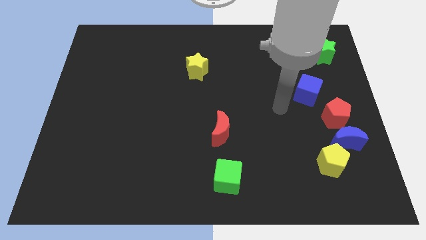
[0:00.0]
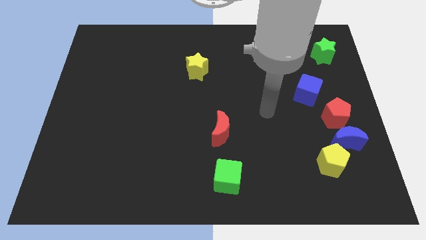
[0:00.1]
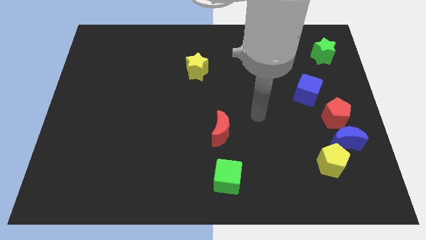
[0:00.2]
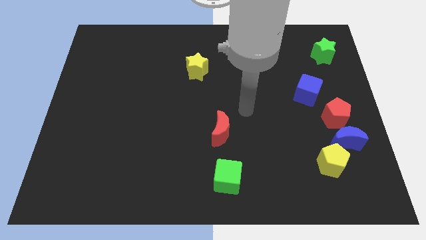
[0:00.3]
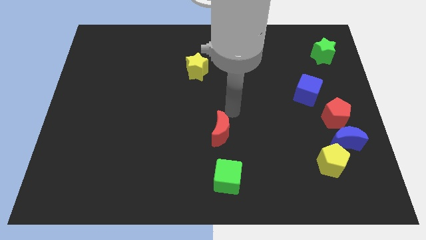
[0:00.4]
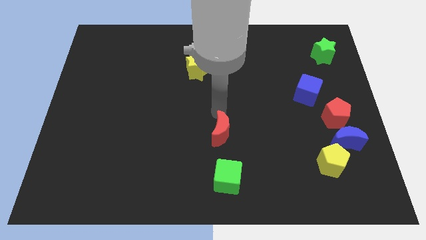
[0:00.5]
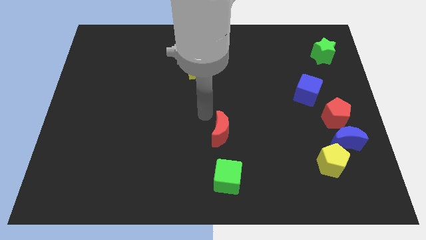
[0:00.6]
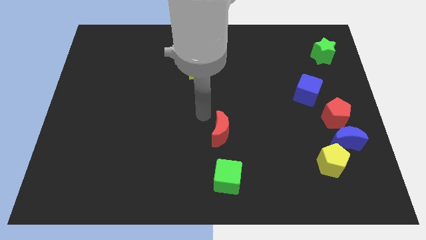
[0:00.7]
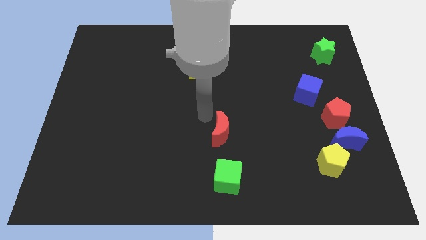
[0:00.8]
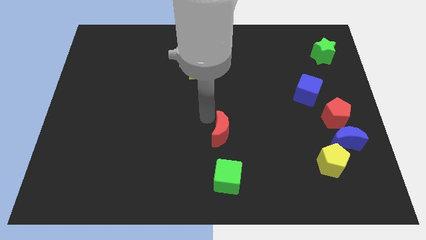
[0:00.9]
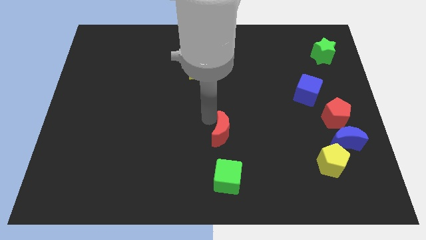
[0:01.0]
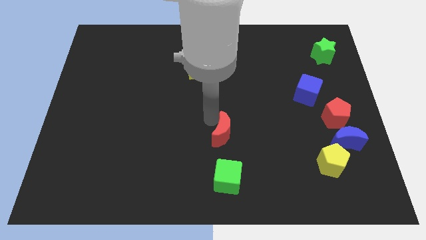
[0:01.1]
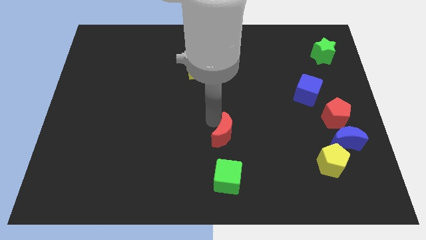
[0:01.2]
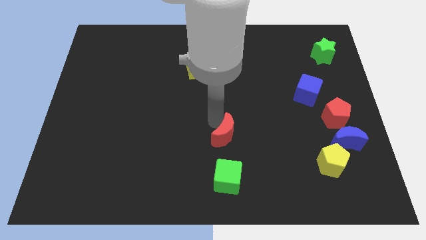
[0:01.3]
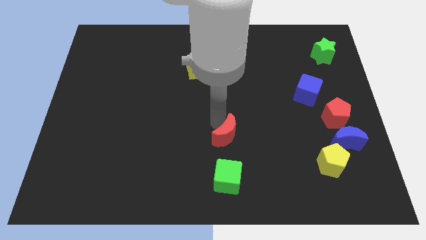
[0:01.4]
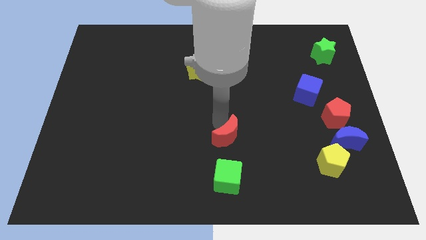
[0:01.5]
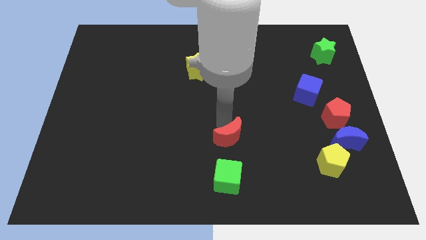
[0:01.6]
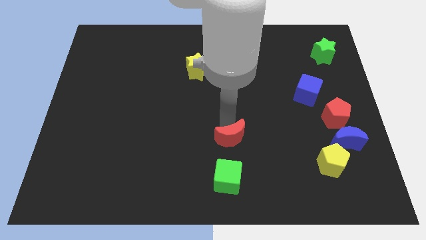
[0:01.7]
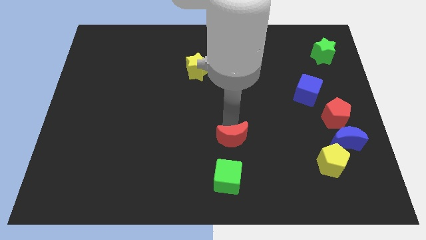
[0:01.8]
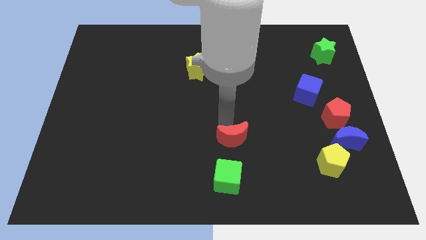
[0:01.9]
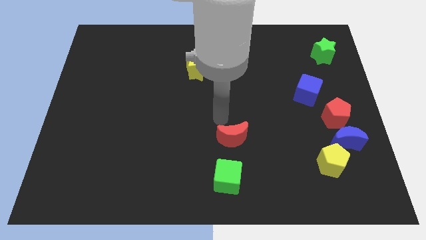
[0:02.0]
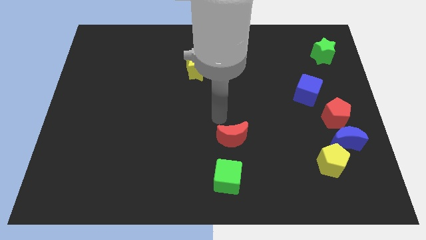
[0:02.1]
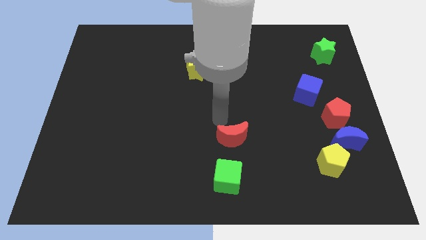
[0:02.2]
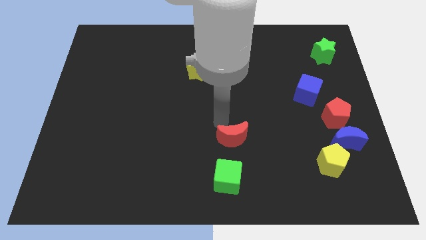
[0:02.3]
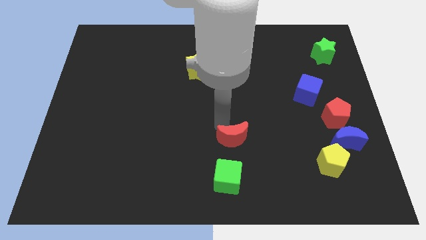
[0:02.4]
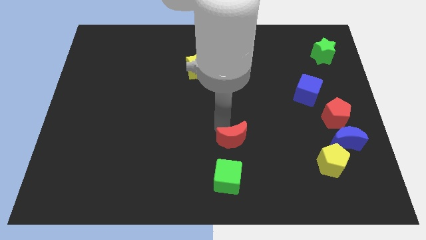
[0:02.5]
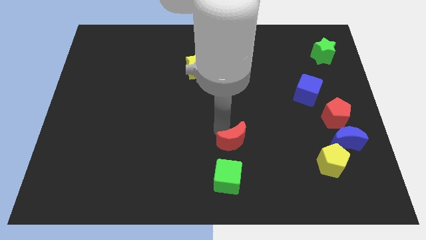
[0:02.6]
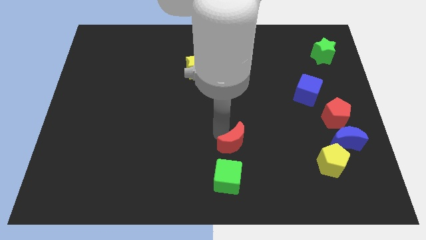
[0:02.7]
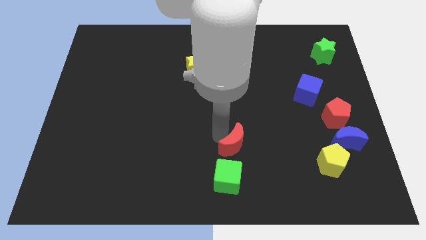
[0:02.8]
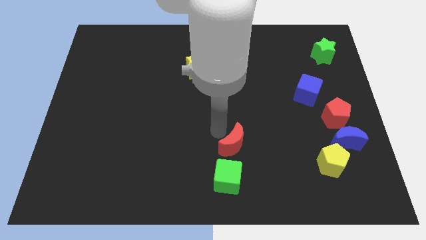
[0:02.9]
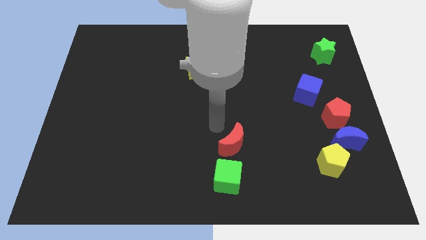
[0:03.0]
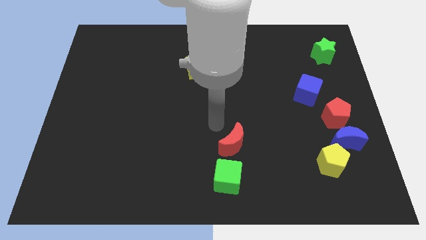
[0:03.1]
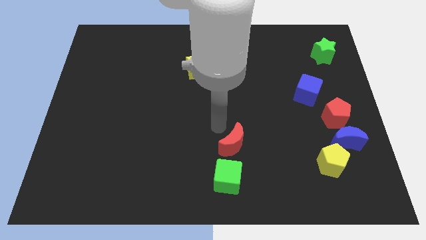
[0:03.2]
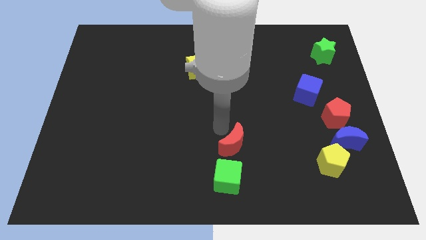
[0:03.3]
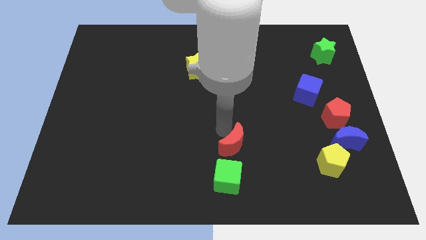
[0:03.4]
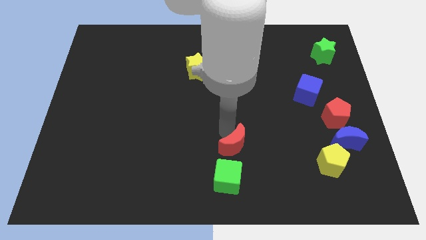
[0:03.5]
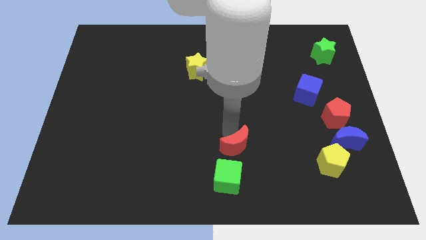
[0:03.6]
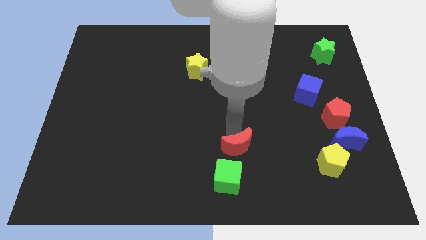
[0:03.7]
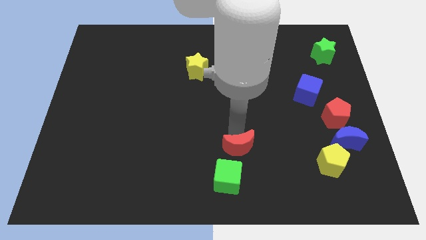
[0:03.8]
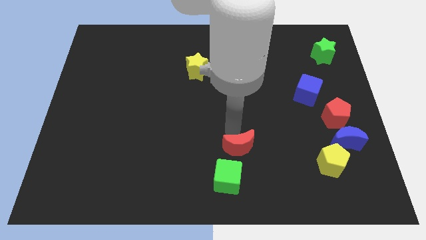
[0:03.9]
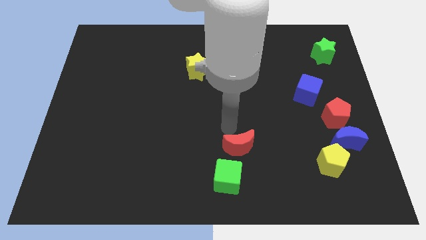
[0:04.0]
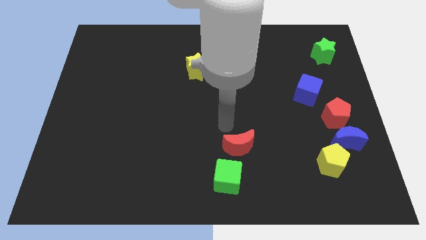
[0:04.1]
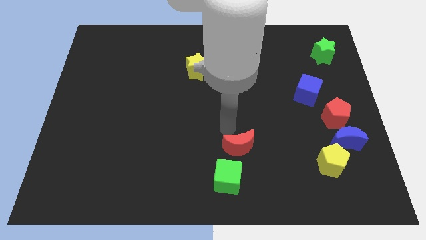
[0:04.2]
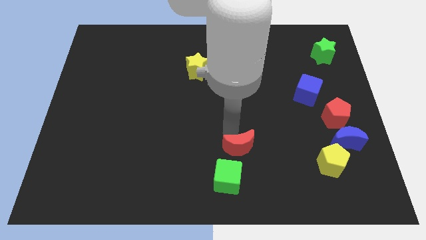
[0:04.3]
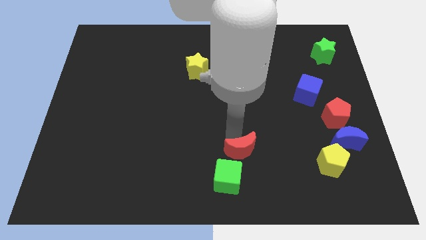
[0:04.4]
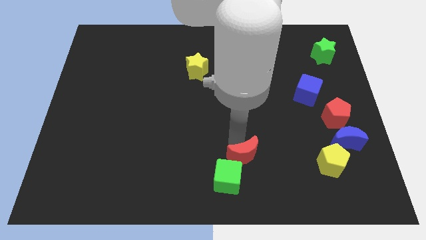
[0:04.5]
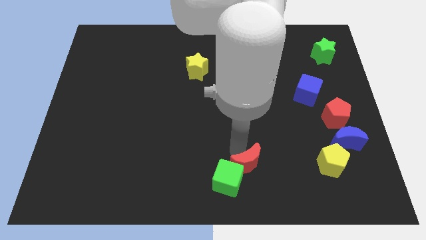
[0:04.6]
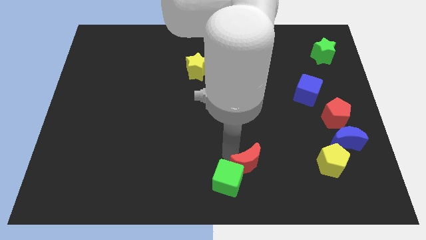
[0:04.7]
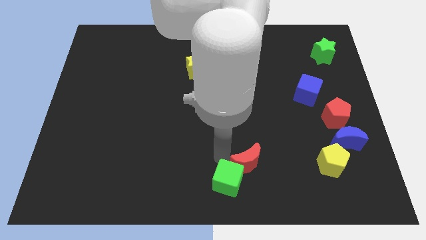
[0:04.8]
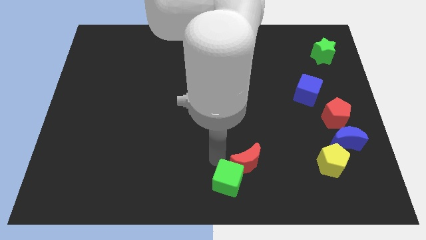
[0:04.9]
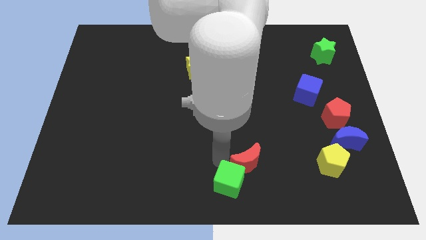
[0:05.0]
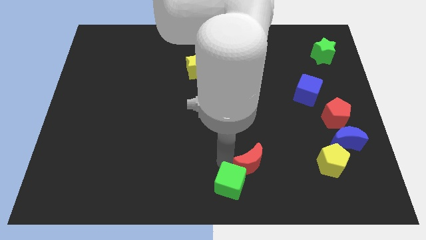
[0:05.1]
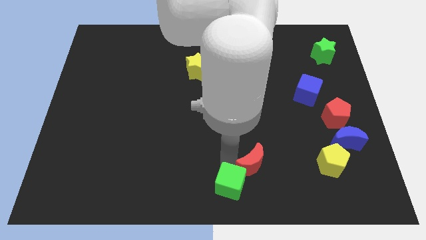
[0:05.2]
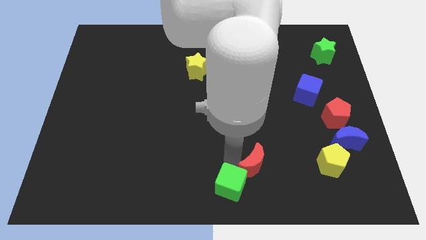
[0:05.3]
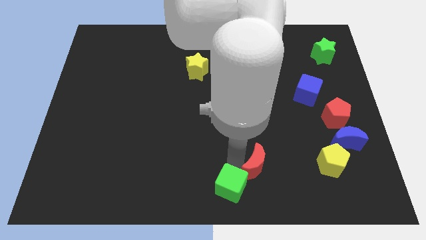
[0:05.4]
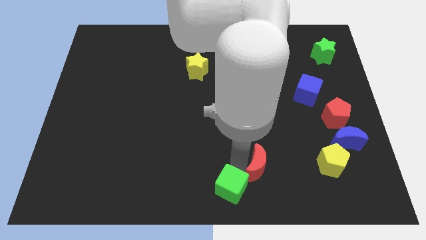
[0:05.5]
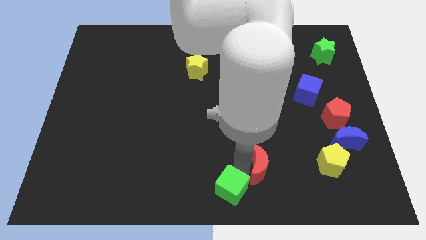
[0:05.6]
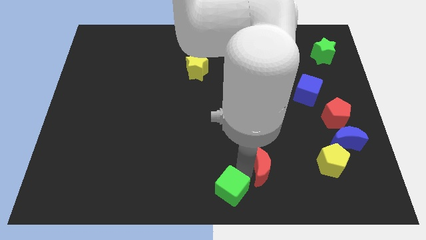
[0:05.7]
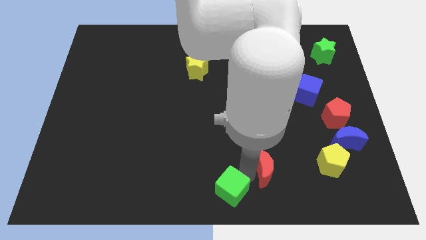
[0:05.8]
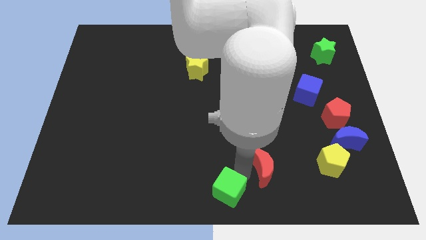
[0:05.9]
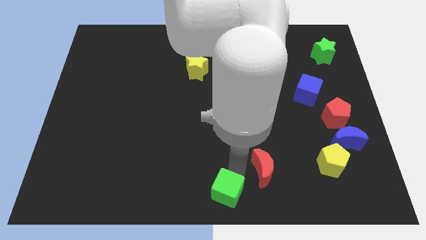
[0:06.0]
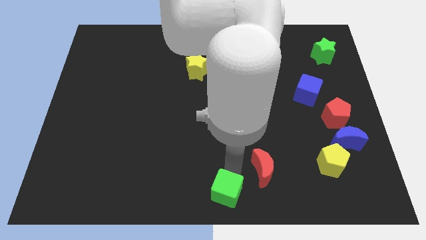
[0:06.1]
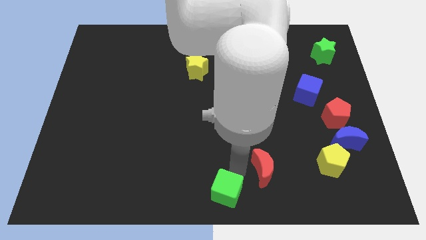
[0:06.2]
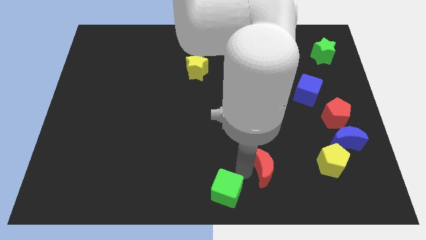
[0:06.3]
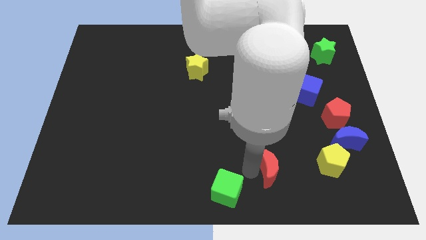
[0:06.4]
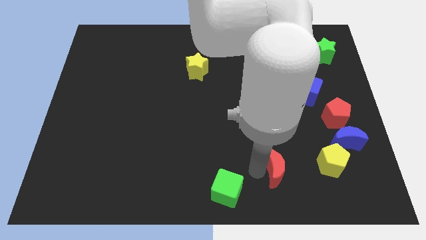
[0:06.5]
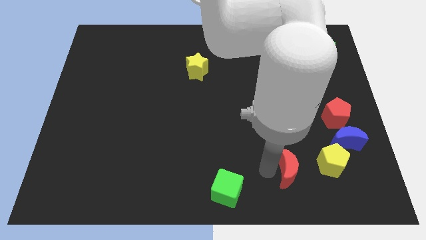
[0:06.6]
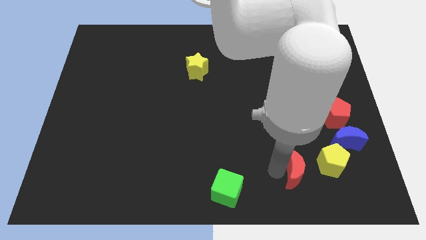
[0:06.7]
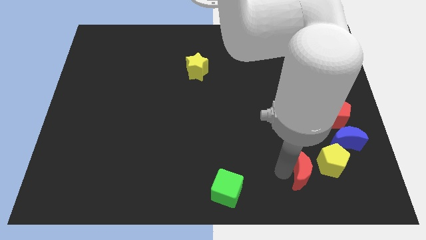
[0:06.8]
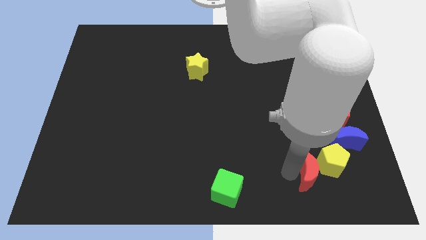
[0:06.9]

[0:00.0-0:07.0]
slide the red moon to the bottom left of the blue moon

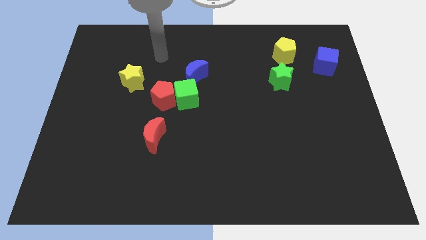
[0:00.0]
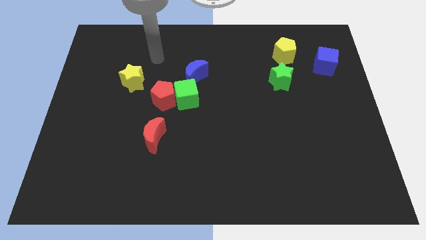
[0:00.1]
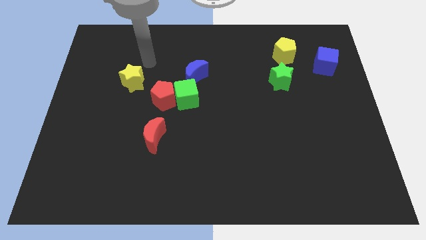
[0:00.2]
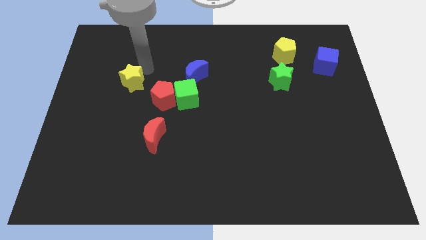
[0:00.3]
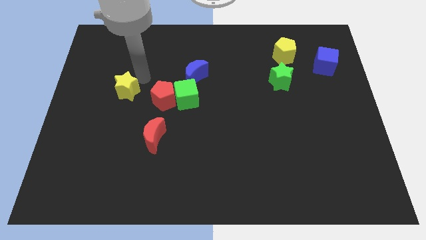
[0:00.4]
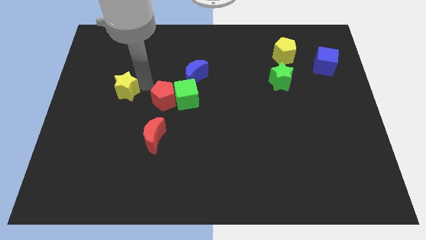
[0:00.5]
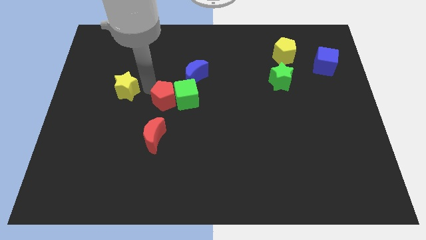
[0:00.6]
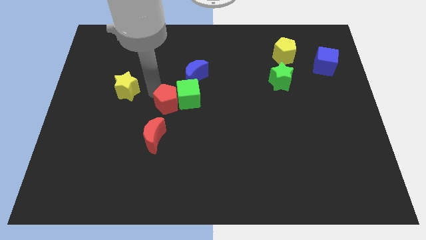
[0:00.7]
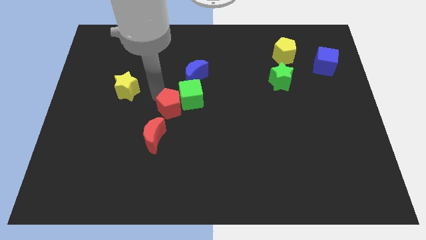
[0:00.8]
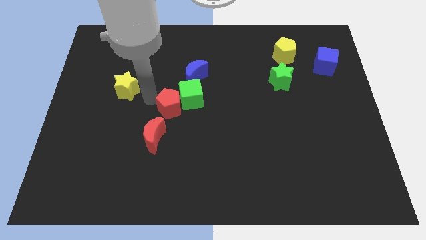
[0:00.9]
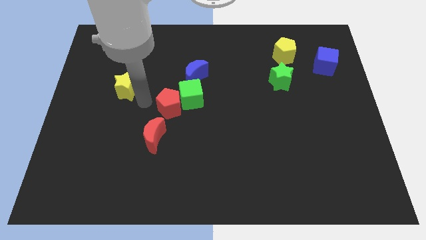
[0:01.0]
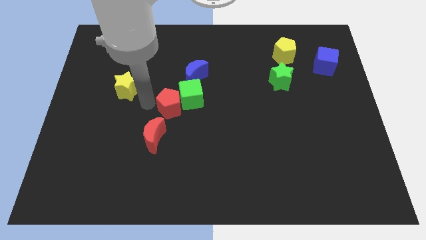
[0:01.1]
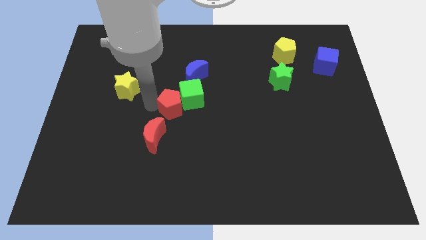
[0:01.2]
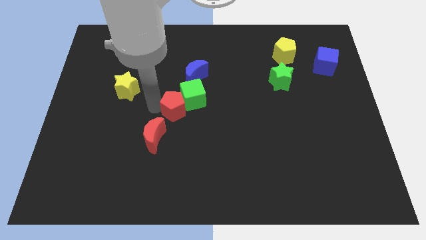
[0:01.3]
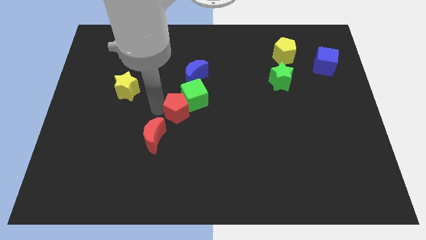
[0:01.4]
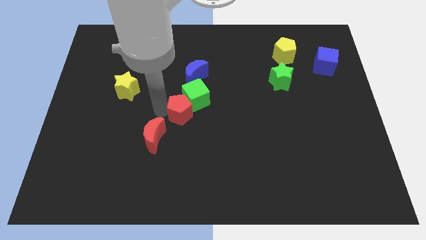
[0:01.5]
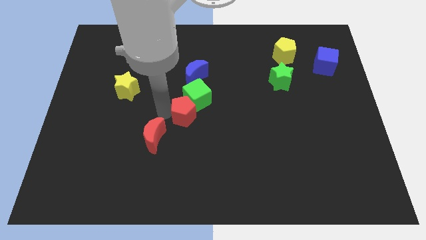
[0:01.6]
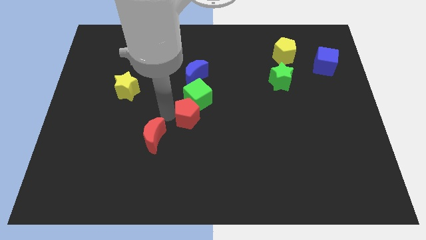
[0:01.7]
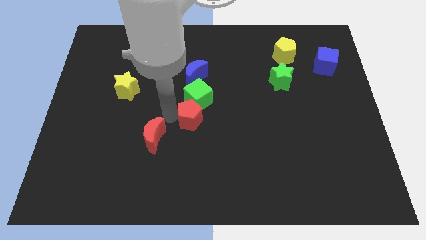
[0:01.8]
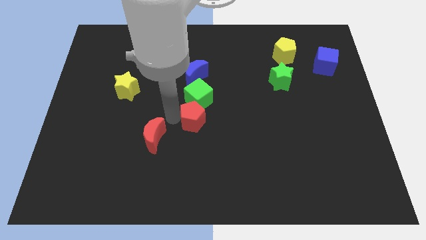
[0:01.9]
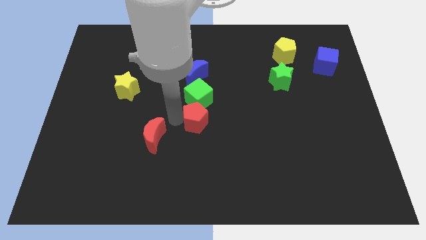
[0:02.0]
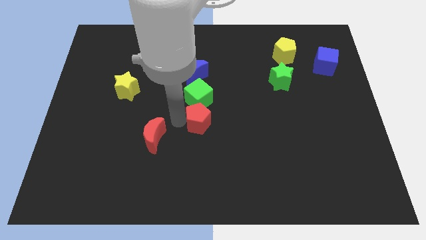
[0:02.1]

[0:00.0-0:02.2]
put the red pentagon to the bottom right side of the green cube
